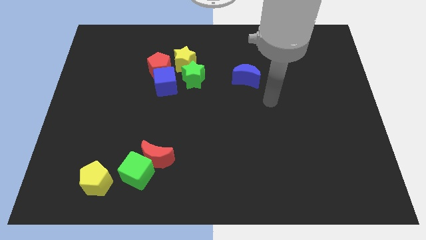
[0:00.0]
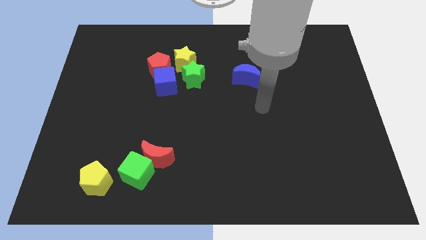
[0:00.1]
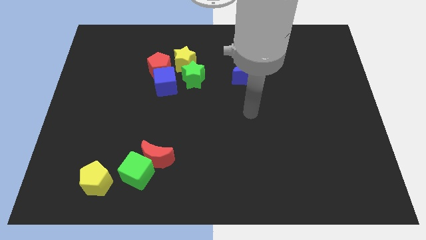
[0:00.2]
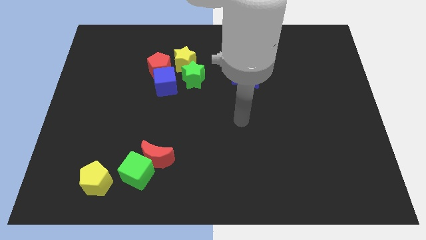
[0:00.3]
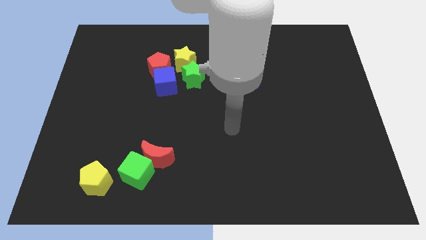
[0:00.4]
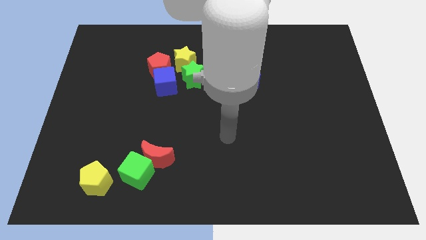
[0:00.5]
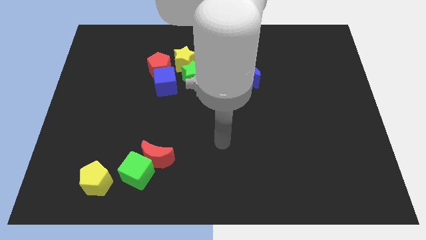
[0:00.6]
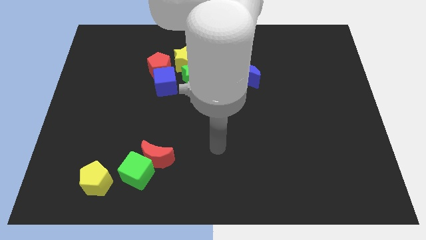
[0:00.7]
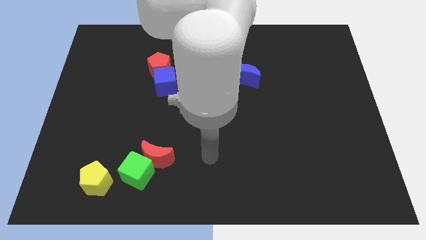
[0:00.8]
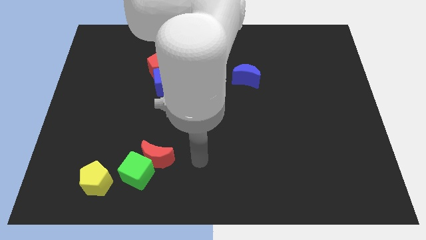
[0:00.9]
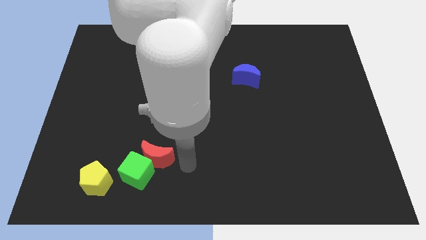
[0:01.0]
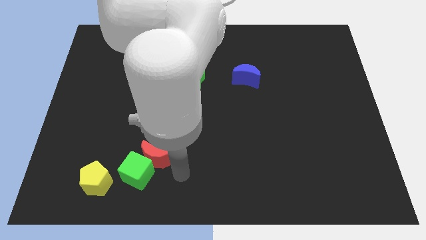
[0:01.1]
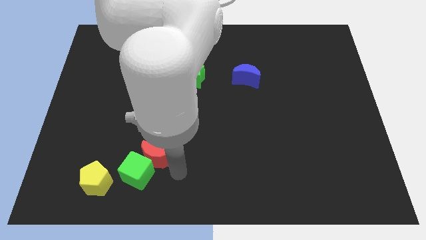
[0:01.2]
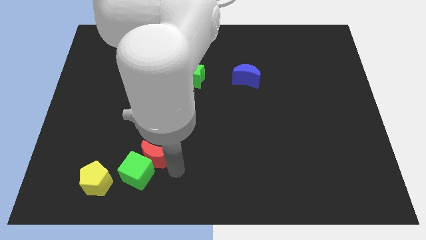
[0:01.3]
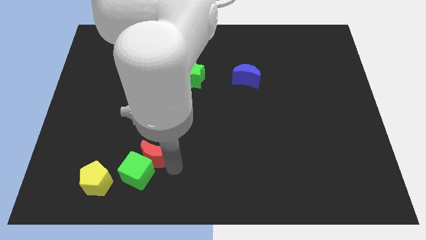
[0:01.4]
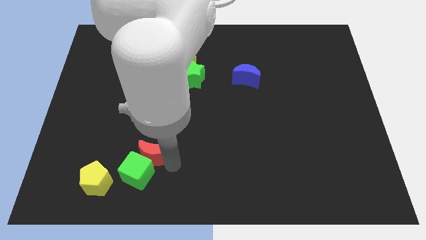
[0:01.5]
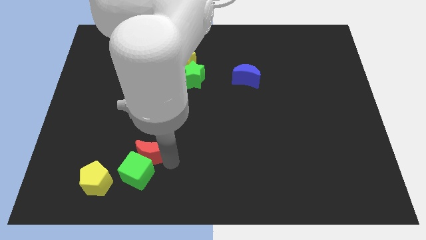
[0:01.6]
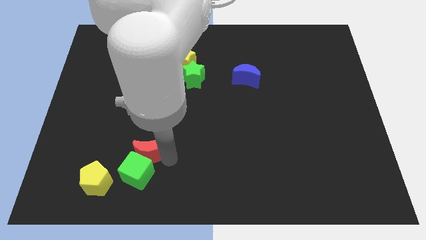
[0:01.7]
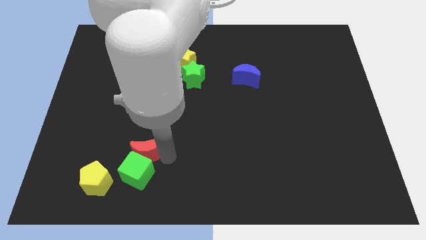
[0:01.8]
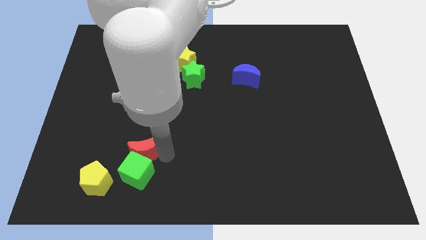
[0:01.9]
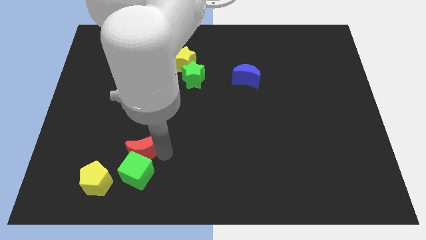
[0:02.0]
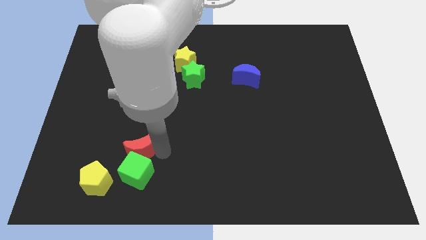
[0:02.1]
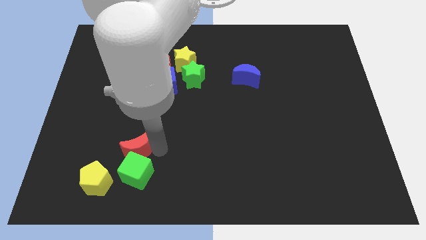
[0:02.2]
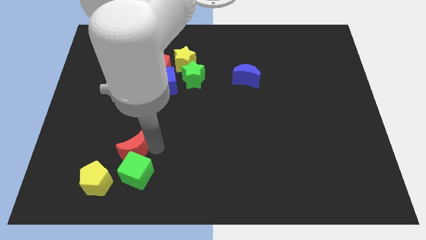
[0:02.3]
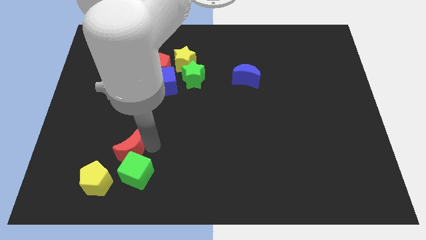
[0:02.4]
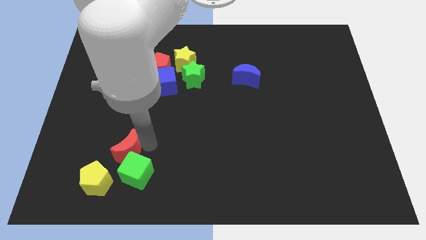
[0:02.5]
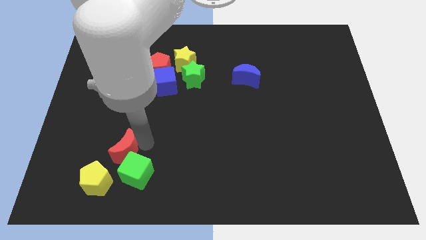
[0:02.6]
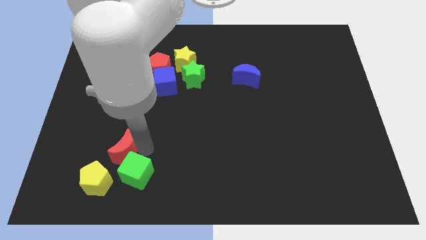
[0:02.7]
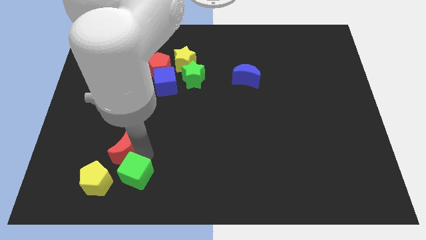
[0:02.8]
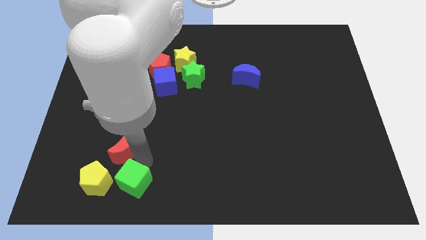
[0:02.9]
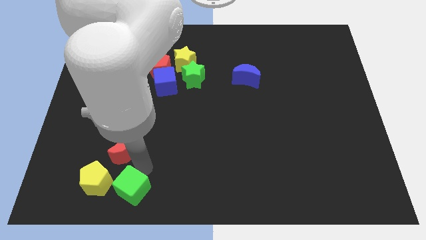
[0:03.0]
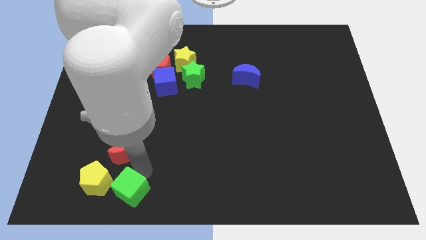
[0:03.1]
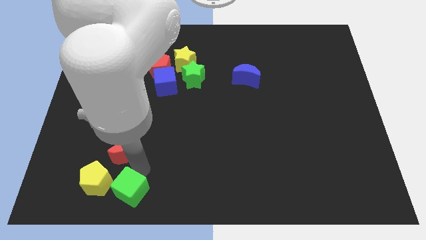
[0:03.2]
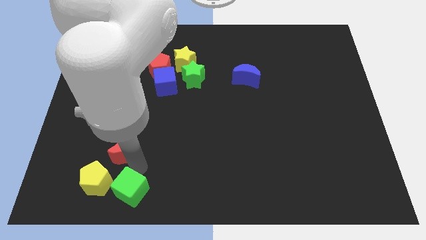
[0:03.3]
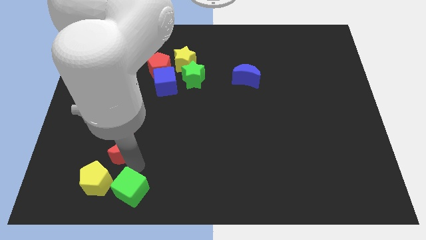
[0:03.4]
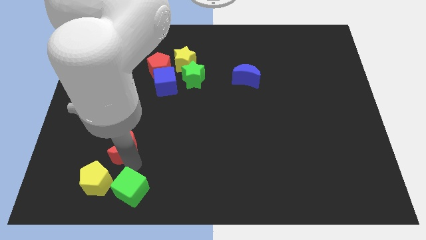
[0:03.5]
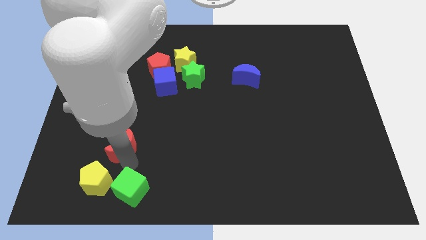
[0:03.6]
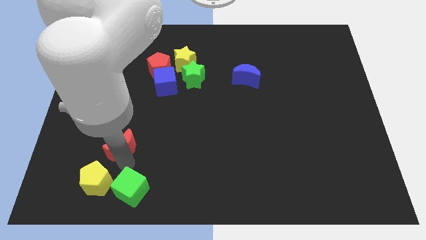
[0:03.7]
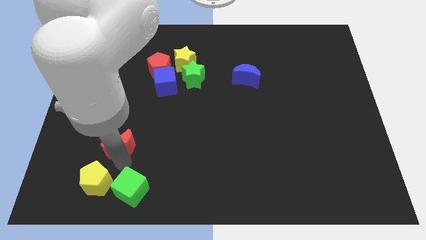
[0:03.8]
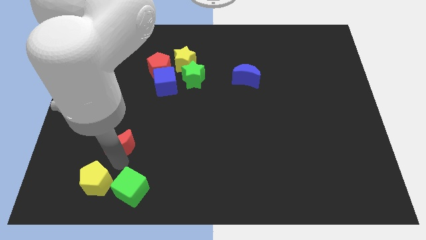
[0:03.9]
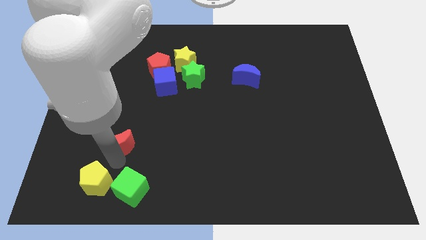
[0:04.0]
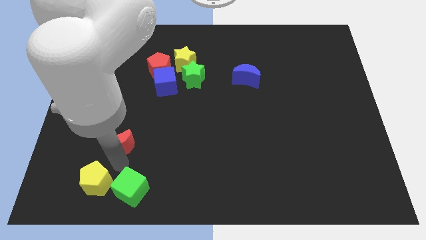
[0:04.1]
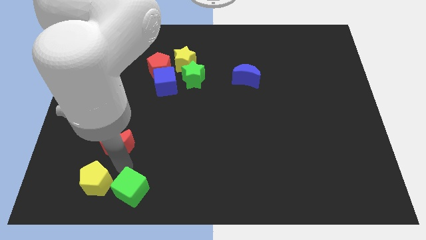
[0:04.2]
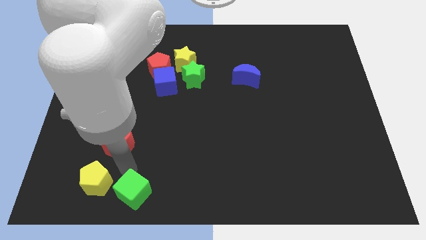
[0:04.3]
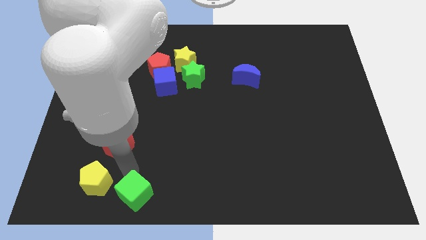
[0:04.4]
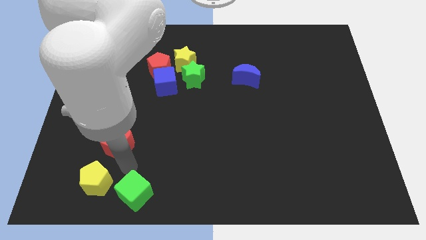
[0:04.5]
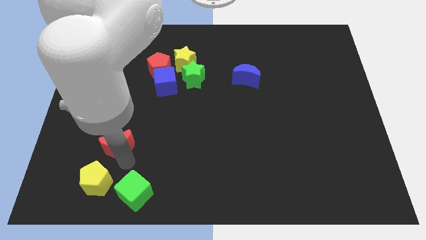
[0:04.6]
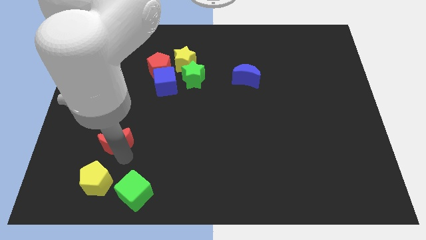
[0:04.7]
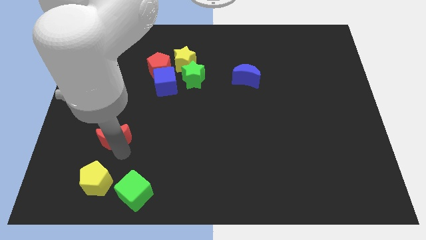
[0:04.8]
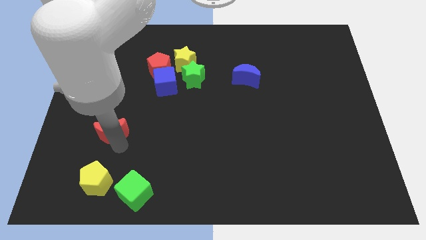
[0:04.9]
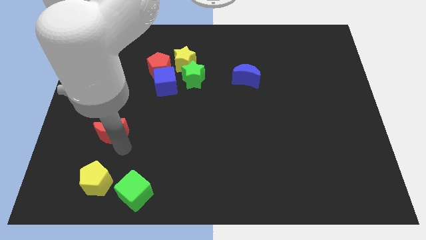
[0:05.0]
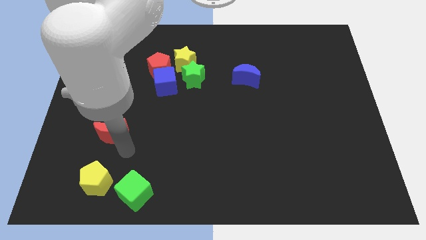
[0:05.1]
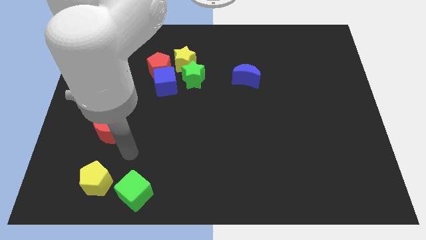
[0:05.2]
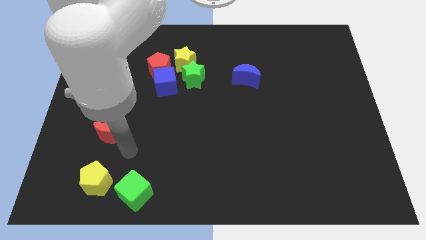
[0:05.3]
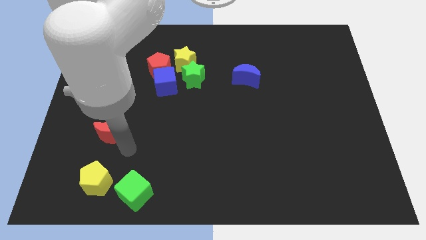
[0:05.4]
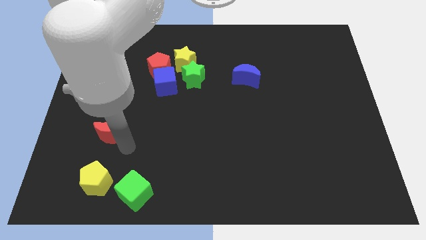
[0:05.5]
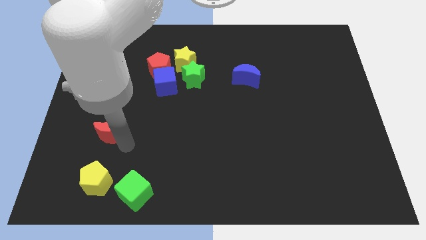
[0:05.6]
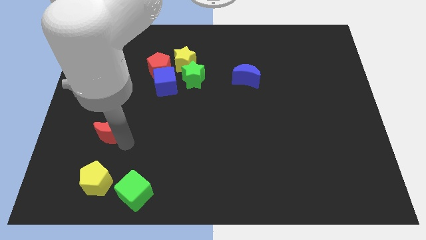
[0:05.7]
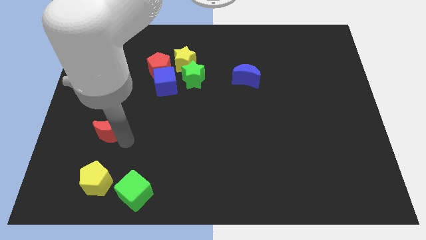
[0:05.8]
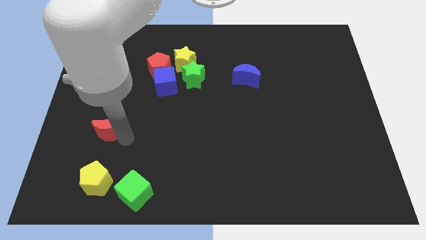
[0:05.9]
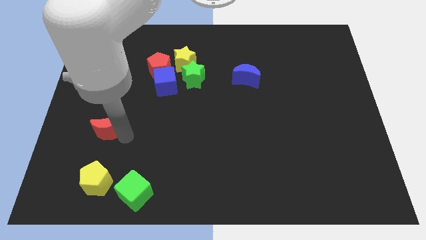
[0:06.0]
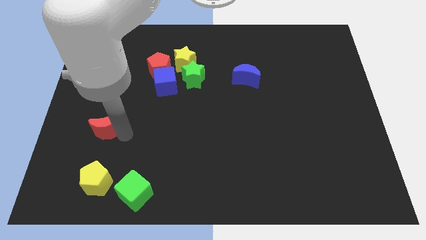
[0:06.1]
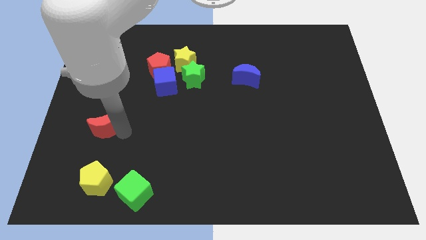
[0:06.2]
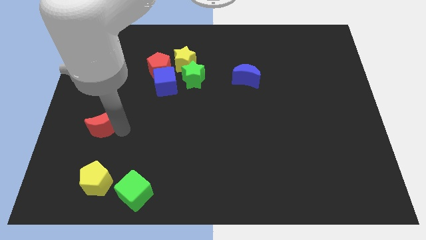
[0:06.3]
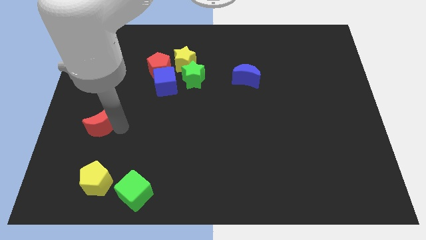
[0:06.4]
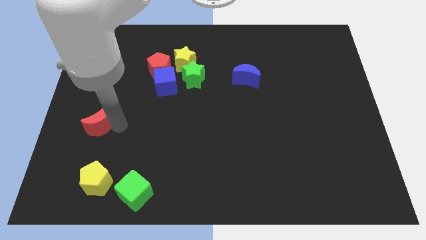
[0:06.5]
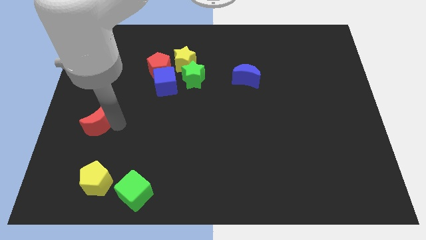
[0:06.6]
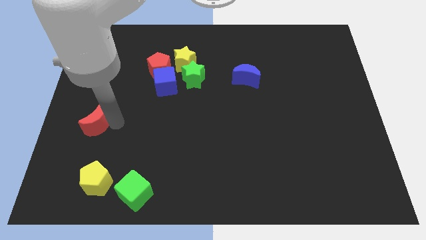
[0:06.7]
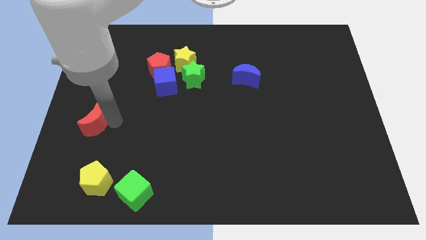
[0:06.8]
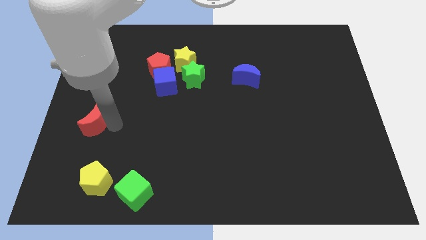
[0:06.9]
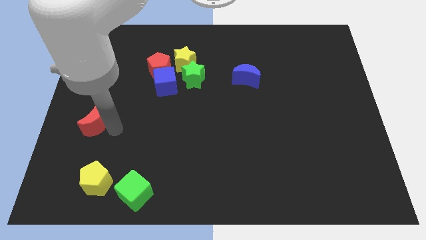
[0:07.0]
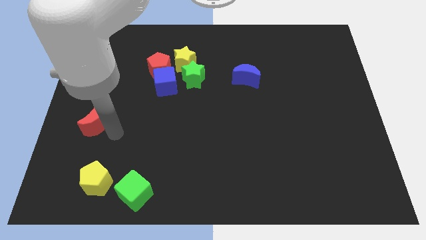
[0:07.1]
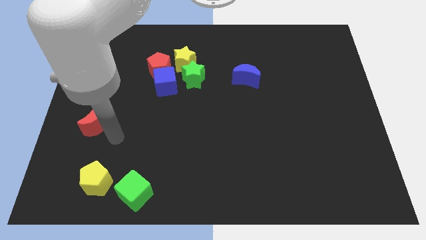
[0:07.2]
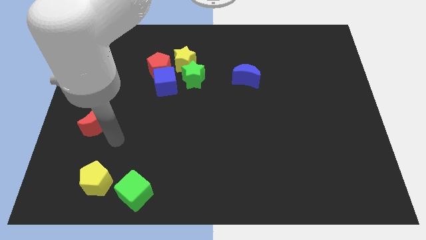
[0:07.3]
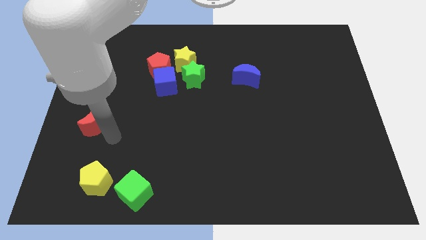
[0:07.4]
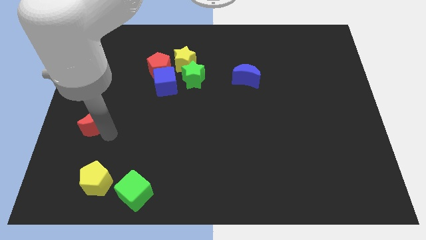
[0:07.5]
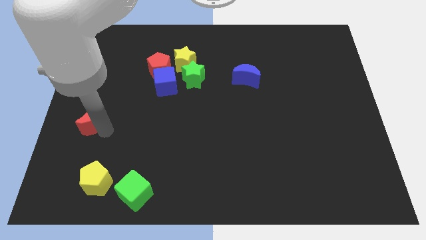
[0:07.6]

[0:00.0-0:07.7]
put the red moon to the center left
